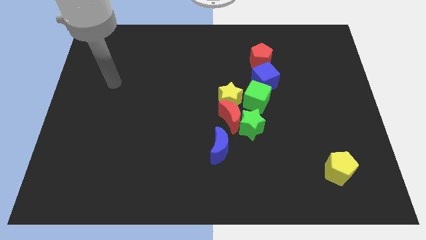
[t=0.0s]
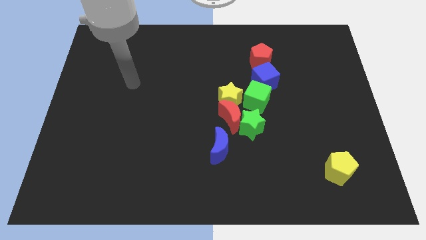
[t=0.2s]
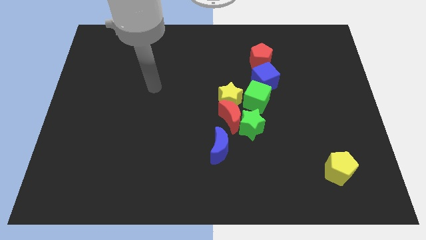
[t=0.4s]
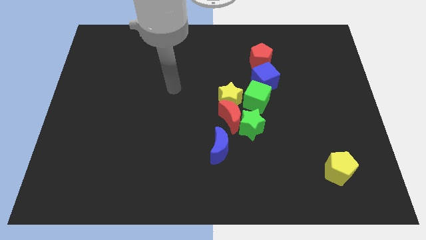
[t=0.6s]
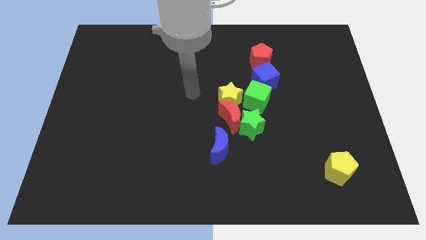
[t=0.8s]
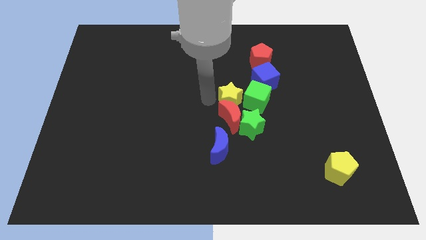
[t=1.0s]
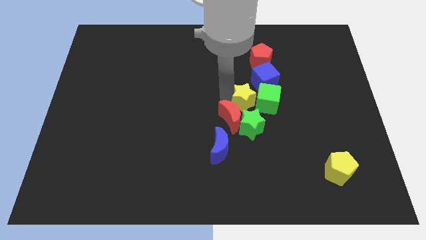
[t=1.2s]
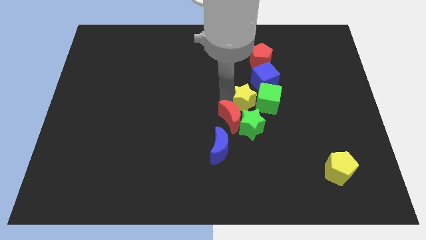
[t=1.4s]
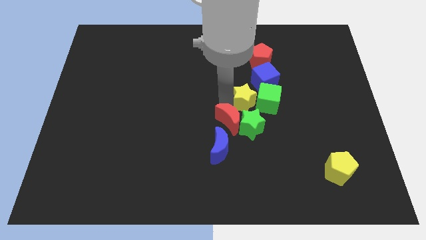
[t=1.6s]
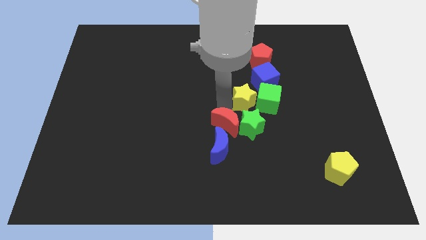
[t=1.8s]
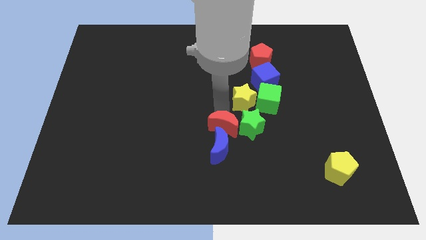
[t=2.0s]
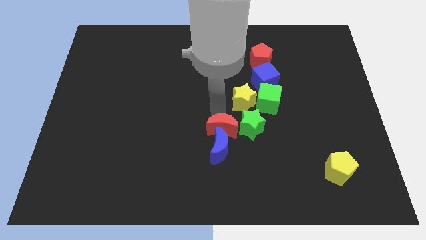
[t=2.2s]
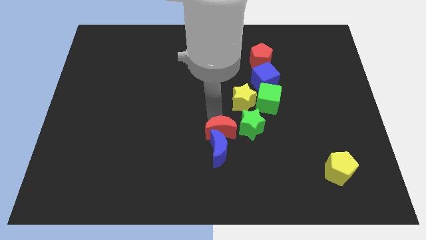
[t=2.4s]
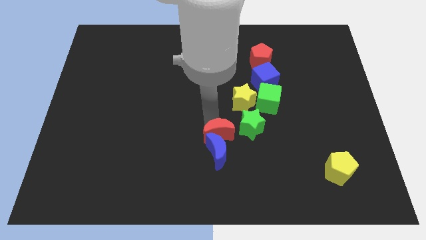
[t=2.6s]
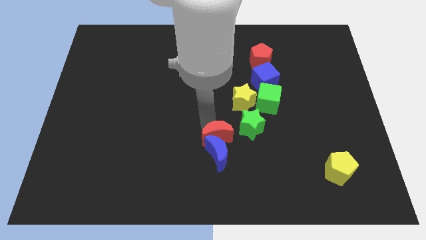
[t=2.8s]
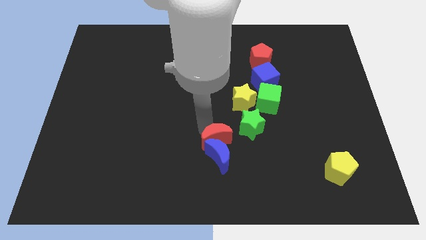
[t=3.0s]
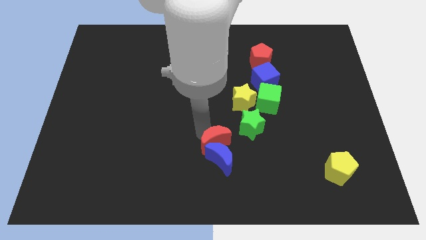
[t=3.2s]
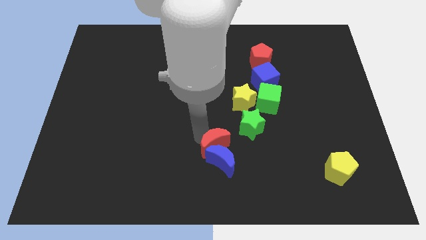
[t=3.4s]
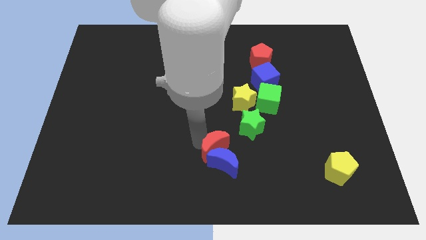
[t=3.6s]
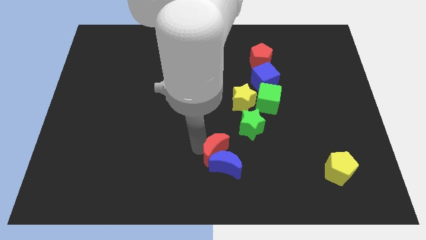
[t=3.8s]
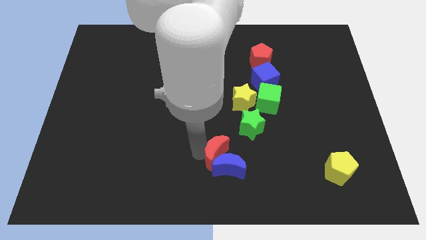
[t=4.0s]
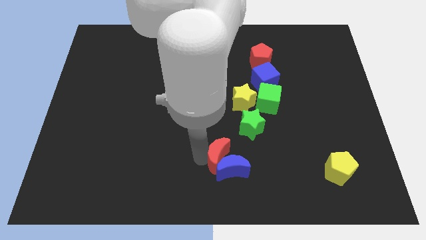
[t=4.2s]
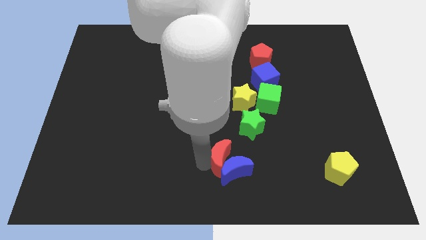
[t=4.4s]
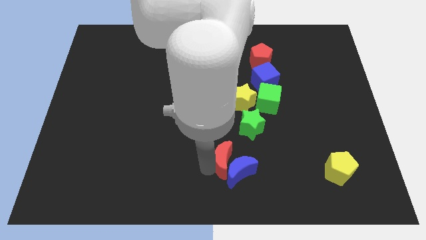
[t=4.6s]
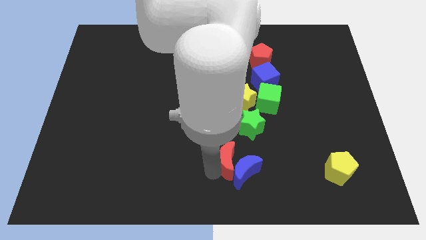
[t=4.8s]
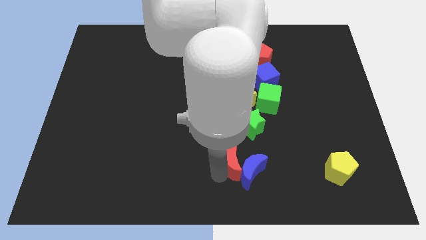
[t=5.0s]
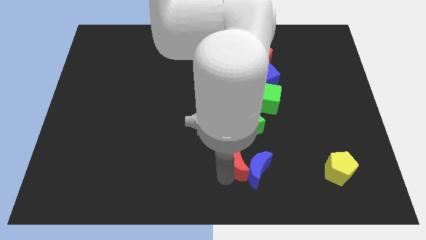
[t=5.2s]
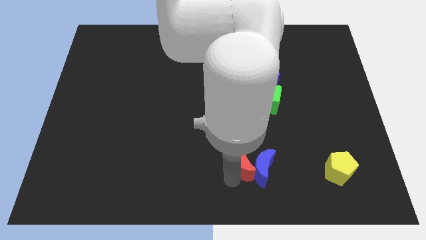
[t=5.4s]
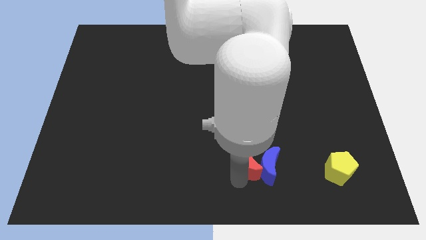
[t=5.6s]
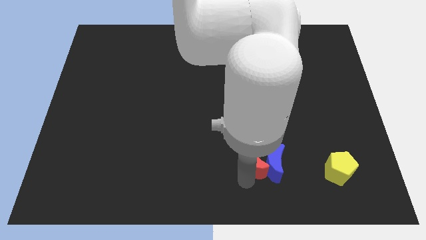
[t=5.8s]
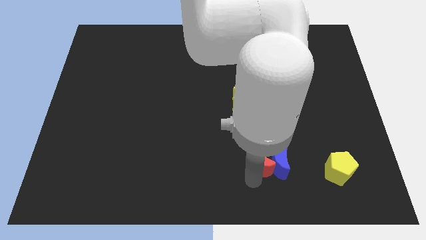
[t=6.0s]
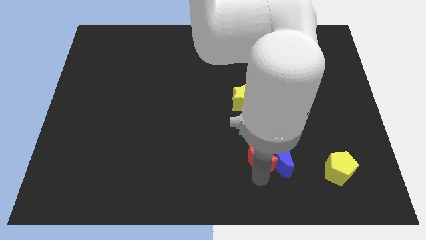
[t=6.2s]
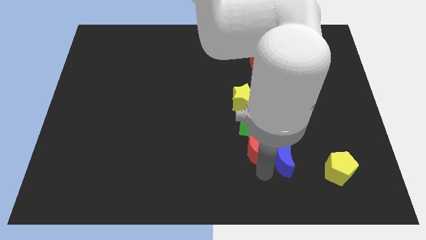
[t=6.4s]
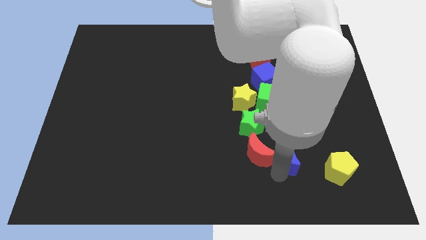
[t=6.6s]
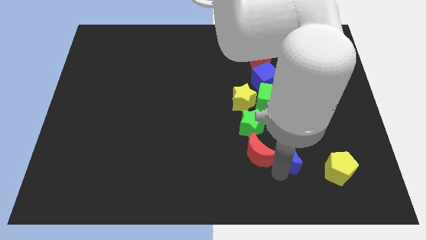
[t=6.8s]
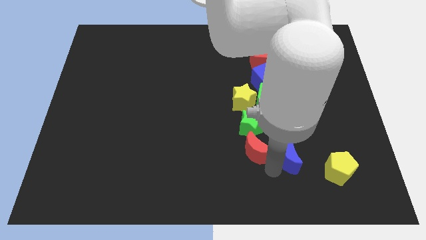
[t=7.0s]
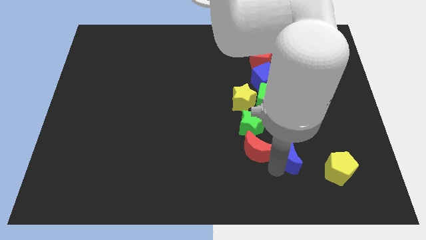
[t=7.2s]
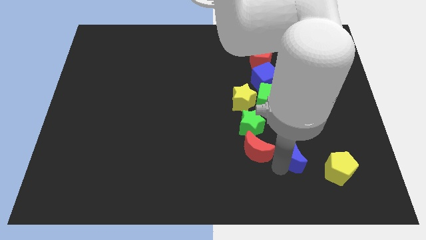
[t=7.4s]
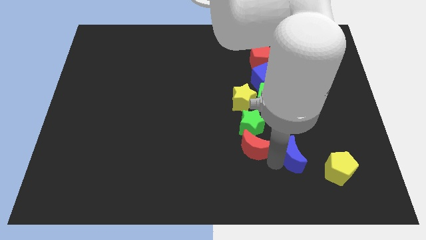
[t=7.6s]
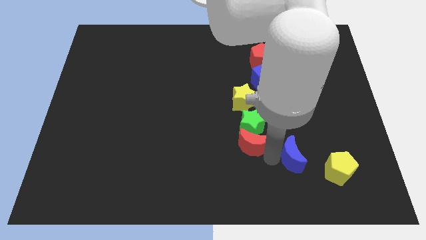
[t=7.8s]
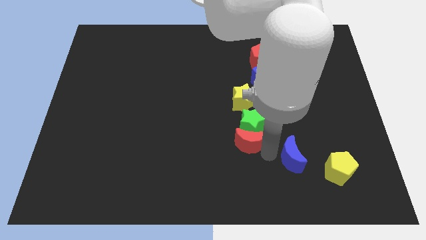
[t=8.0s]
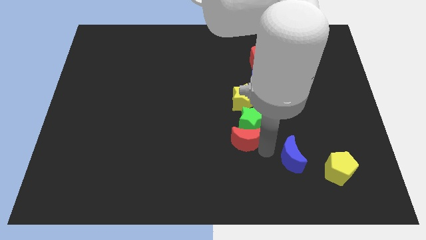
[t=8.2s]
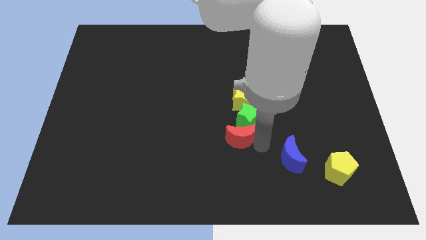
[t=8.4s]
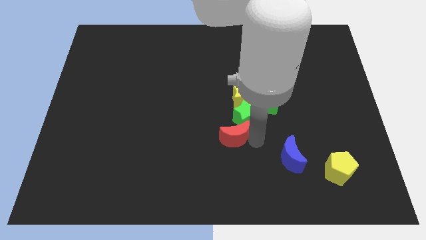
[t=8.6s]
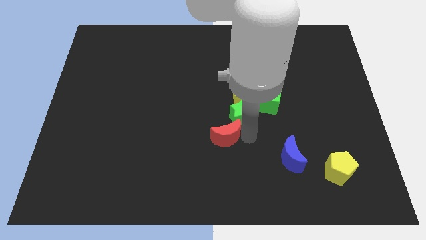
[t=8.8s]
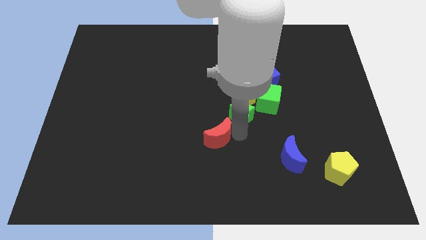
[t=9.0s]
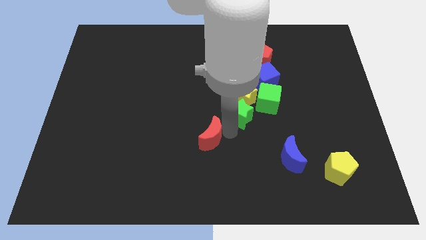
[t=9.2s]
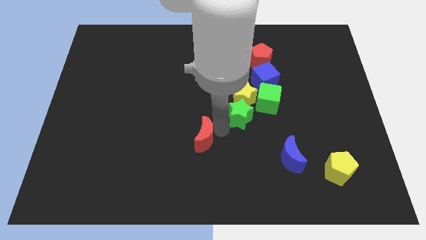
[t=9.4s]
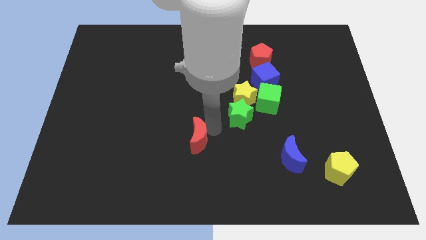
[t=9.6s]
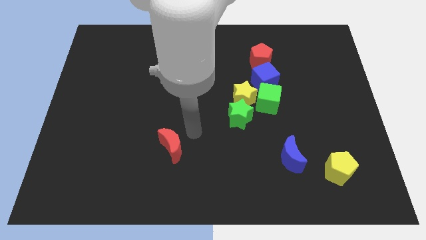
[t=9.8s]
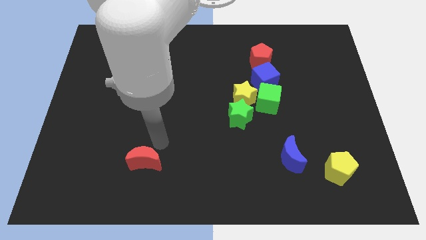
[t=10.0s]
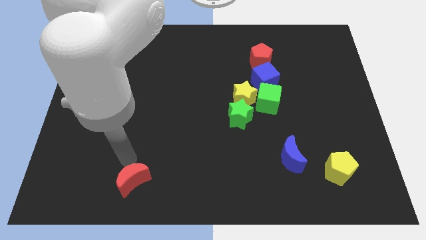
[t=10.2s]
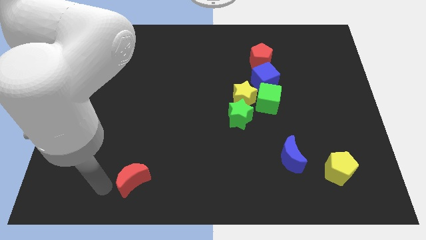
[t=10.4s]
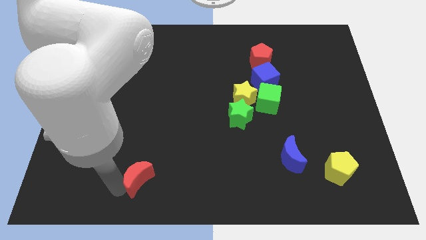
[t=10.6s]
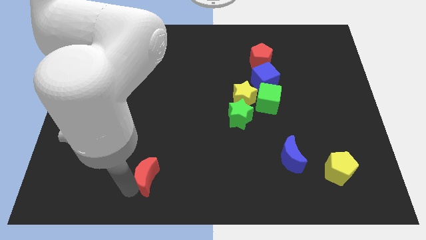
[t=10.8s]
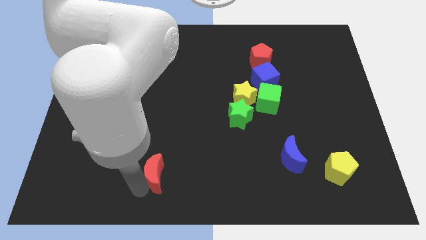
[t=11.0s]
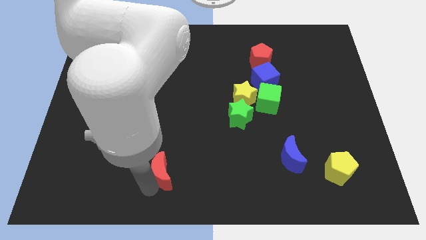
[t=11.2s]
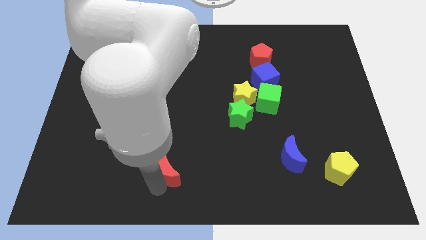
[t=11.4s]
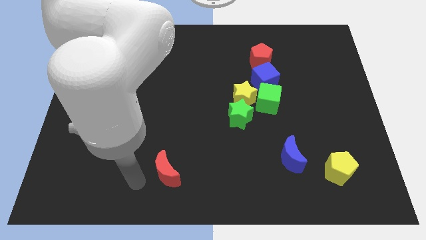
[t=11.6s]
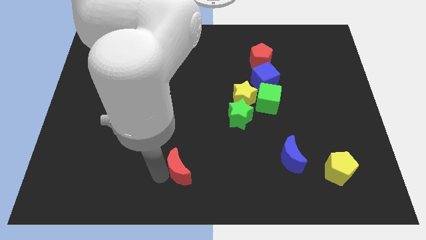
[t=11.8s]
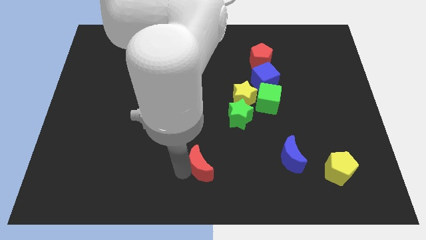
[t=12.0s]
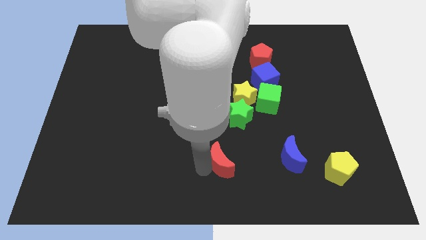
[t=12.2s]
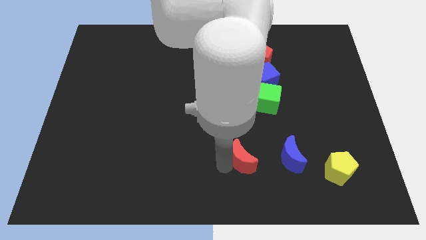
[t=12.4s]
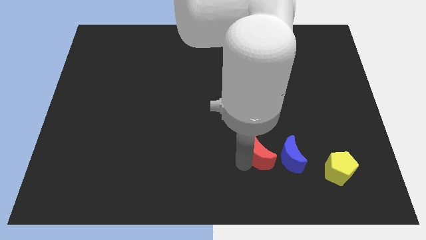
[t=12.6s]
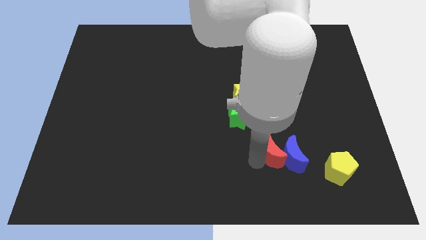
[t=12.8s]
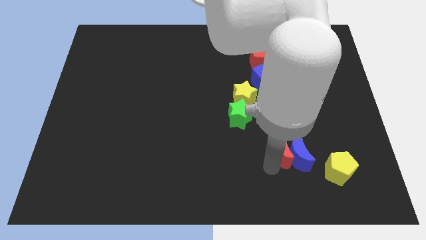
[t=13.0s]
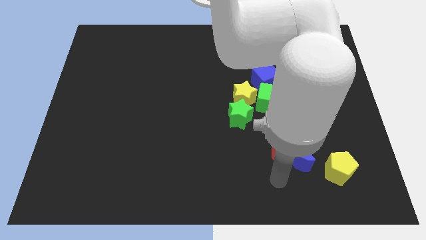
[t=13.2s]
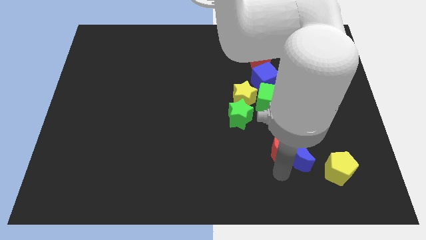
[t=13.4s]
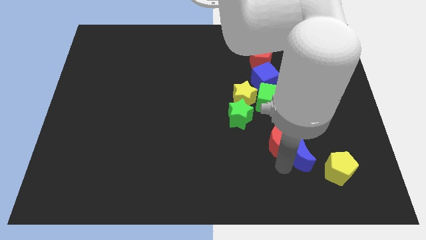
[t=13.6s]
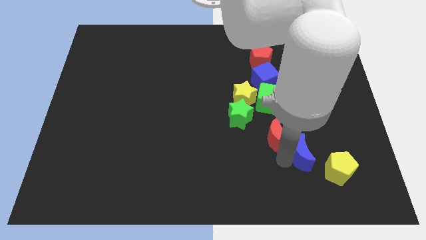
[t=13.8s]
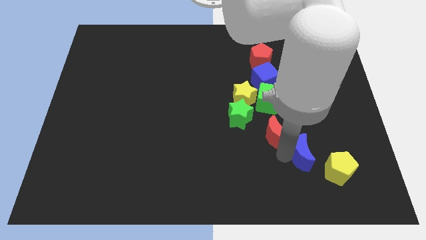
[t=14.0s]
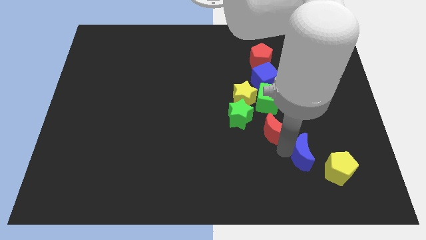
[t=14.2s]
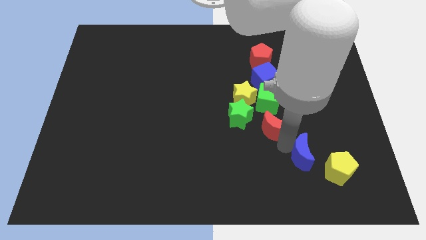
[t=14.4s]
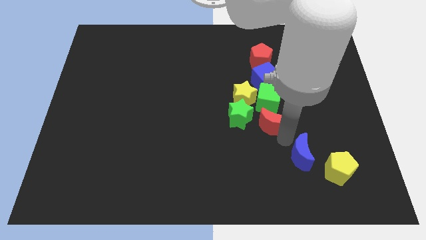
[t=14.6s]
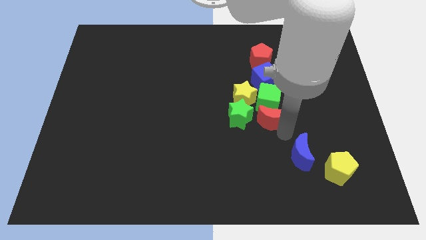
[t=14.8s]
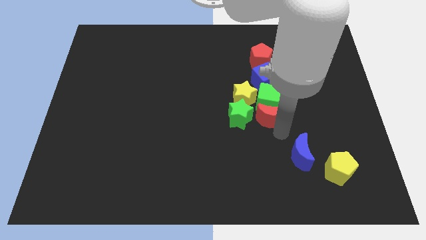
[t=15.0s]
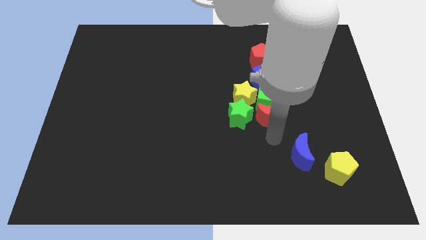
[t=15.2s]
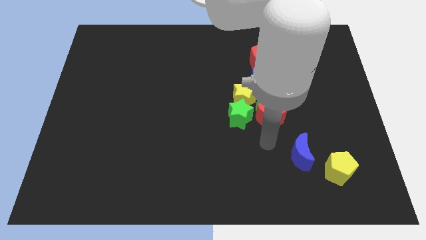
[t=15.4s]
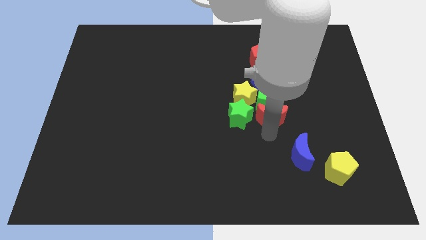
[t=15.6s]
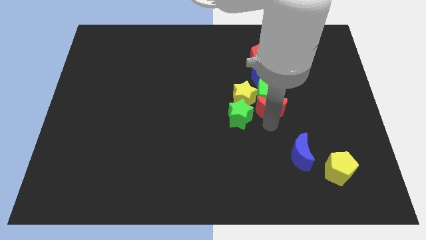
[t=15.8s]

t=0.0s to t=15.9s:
slightly move the red moon up and then to the right
